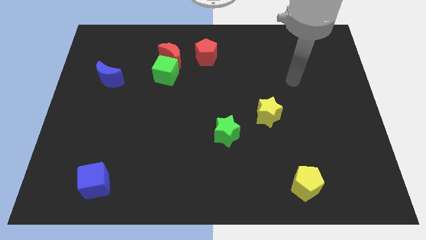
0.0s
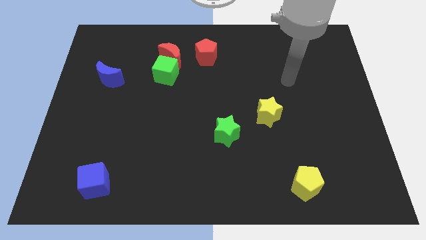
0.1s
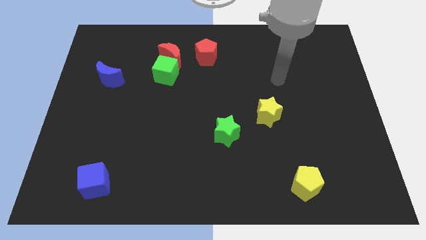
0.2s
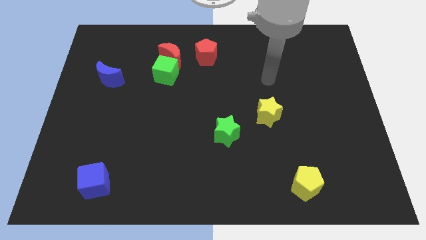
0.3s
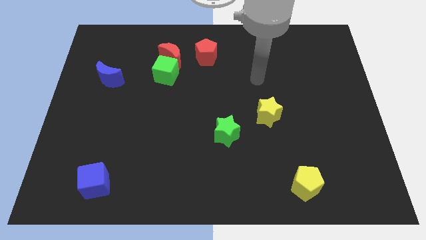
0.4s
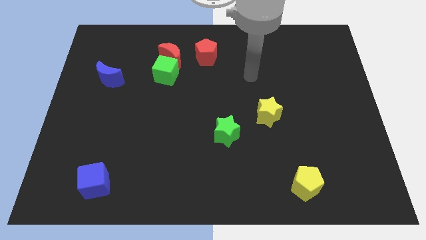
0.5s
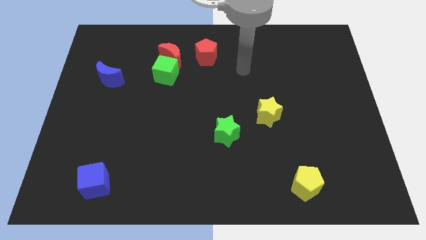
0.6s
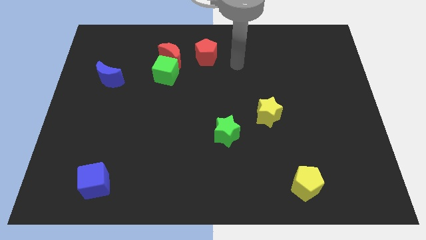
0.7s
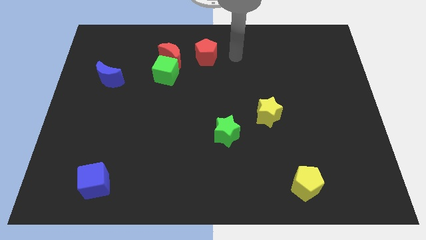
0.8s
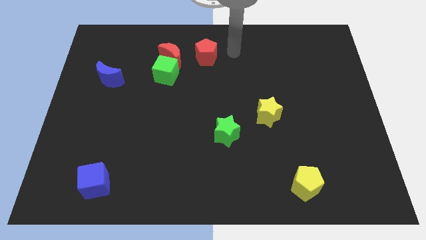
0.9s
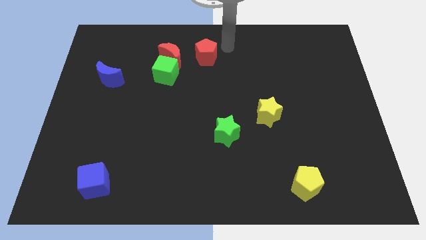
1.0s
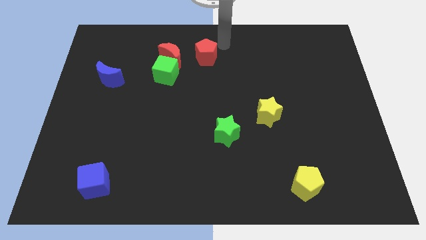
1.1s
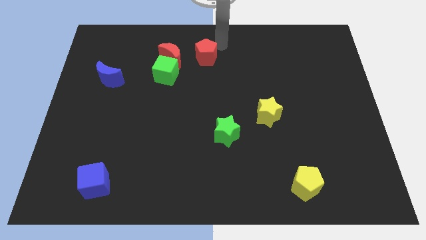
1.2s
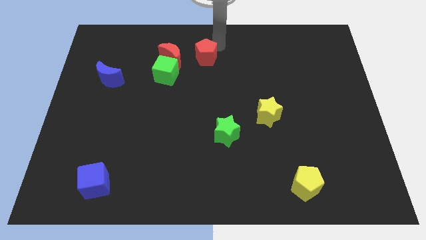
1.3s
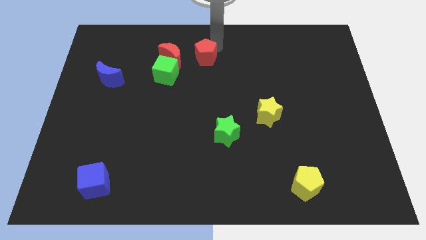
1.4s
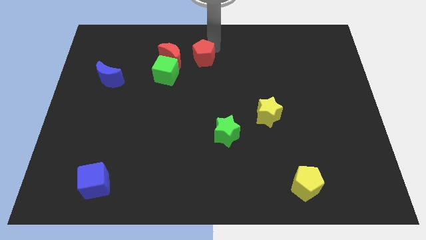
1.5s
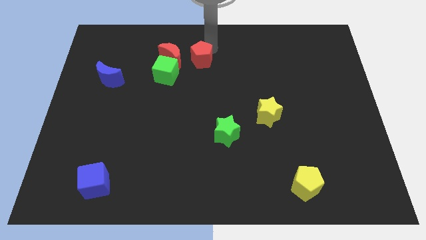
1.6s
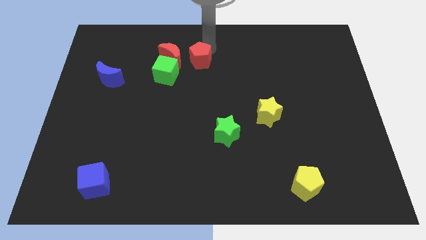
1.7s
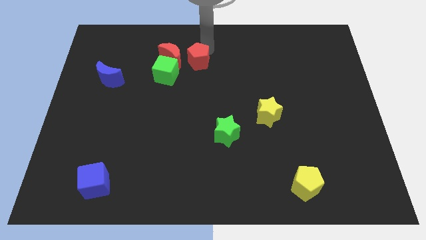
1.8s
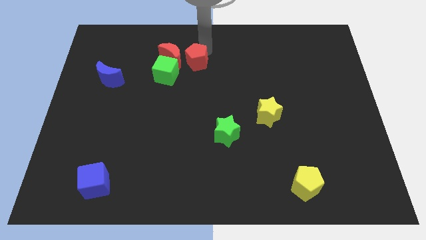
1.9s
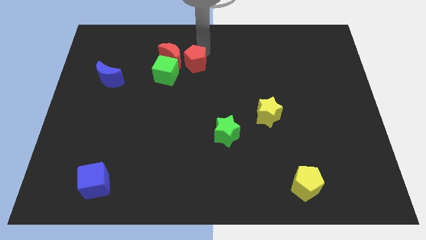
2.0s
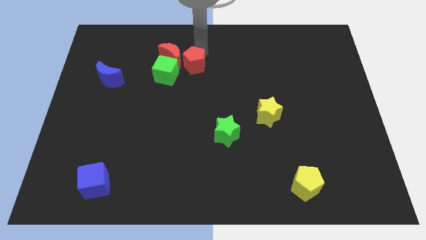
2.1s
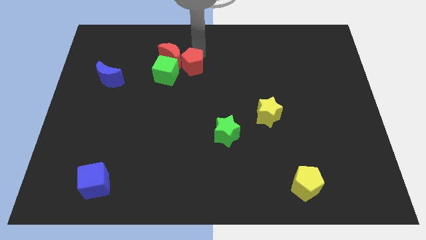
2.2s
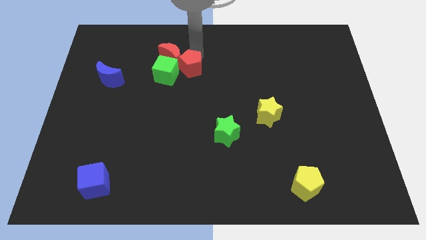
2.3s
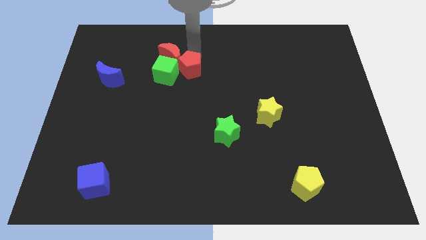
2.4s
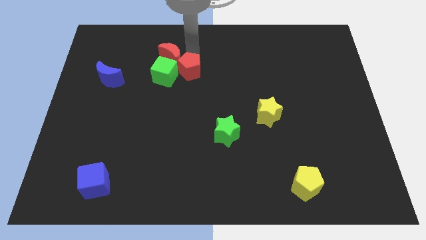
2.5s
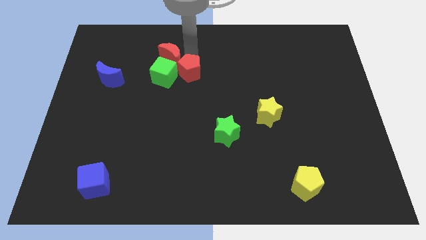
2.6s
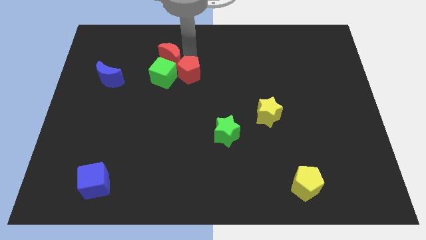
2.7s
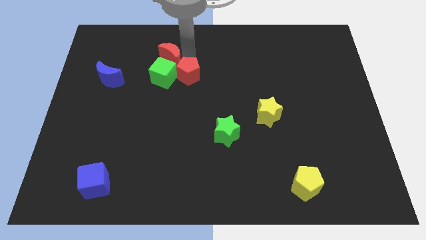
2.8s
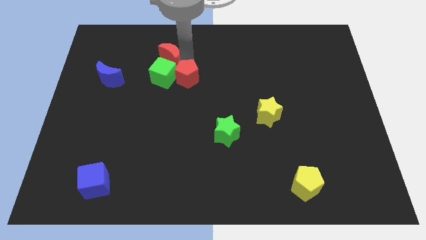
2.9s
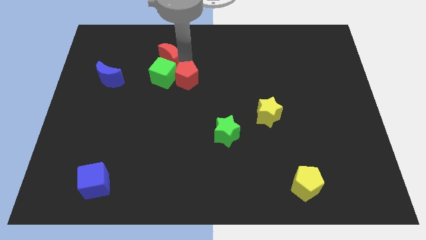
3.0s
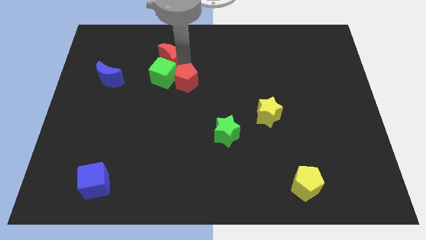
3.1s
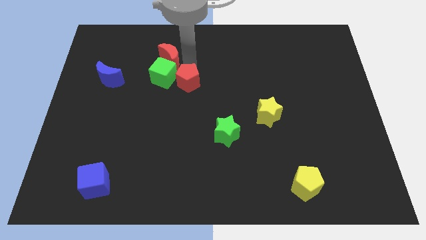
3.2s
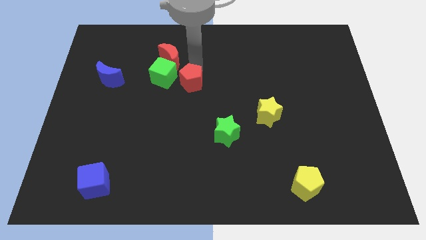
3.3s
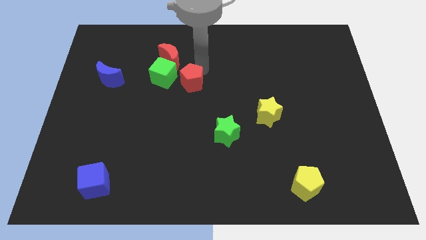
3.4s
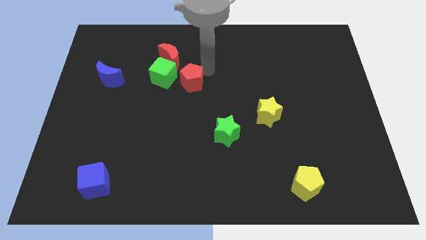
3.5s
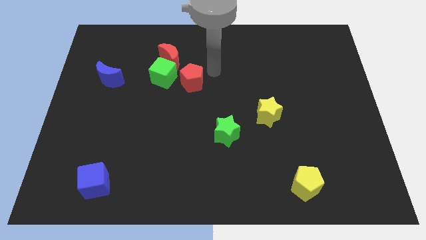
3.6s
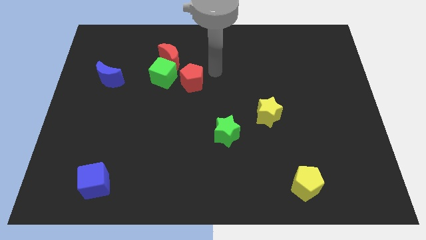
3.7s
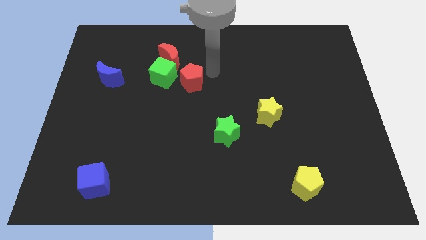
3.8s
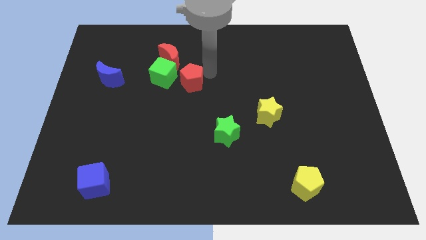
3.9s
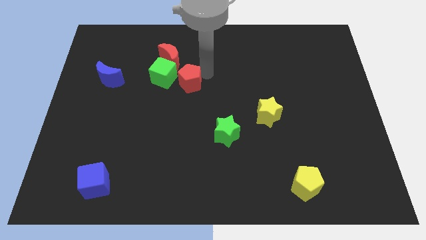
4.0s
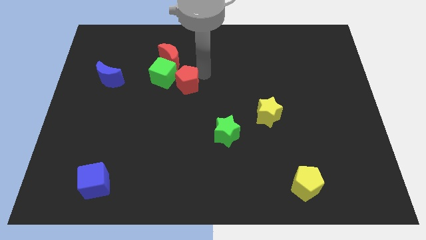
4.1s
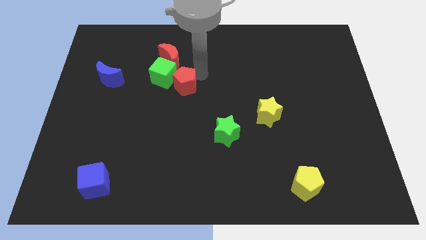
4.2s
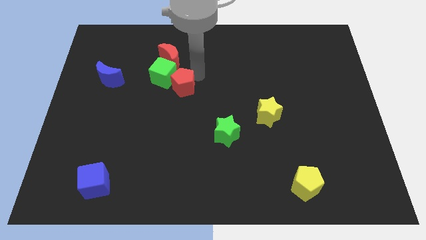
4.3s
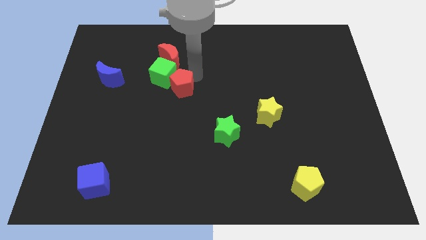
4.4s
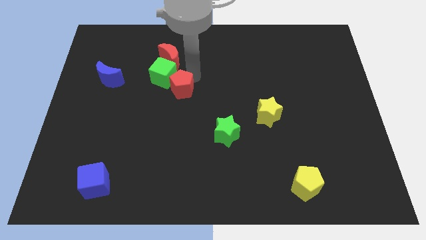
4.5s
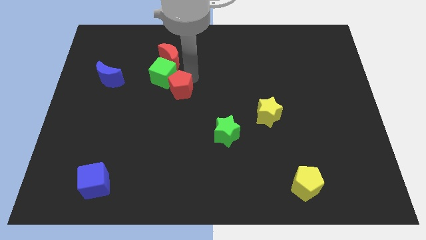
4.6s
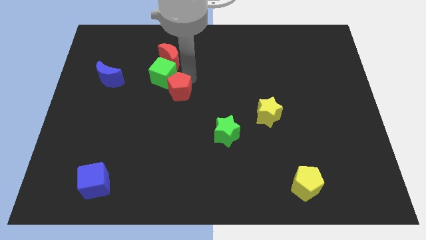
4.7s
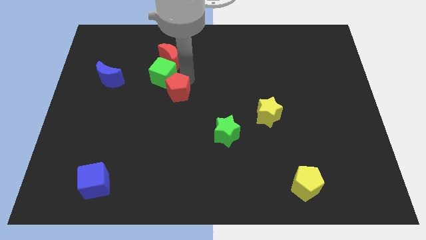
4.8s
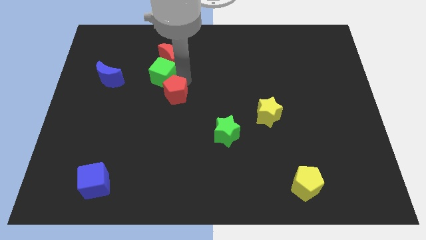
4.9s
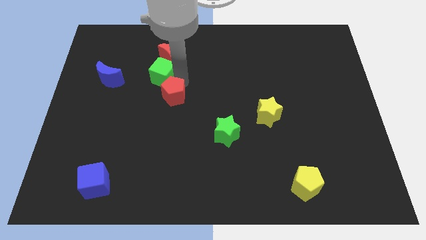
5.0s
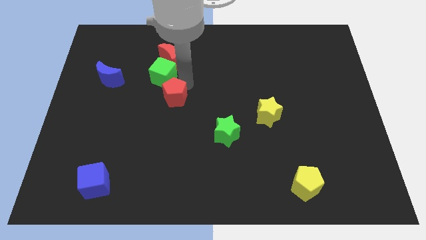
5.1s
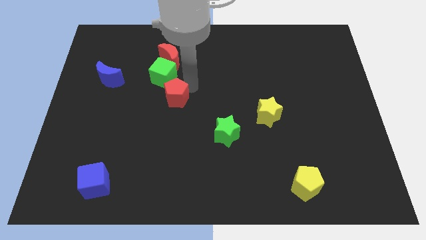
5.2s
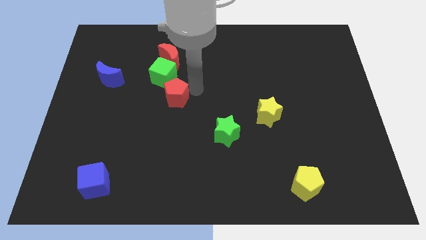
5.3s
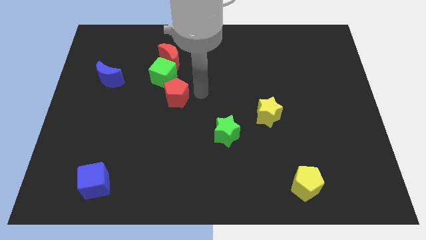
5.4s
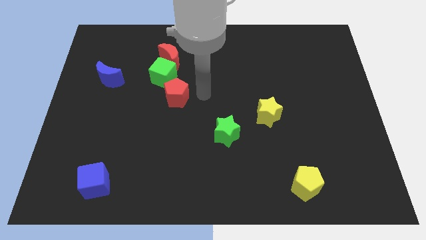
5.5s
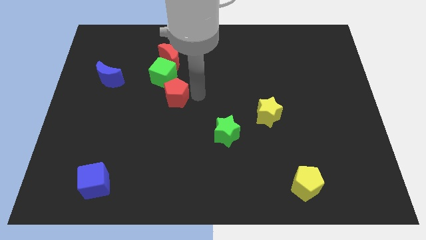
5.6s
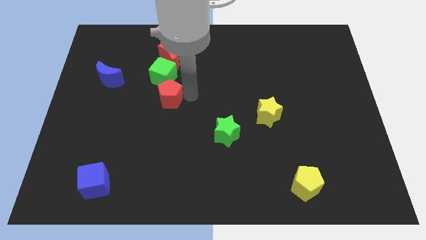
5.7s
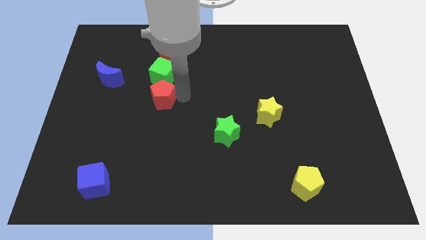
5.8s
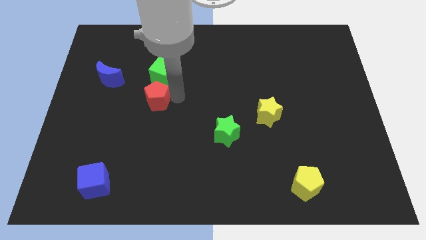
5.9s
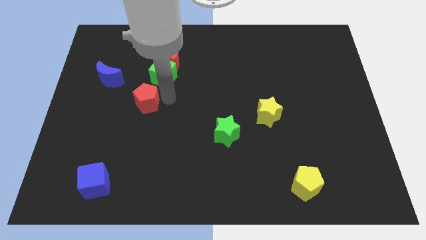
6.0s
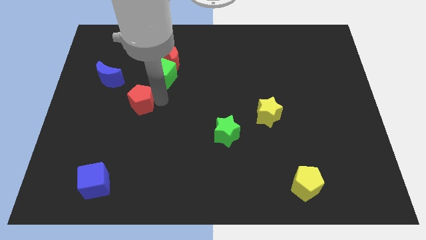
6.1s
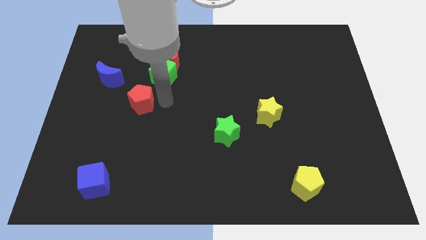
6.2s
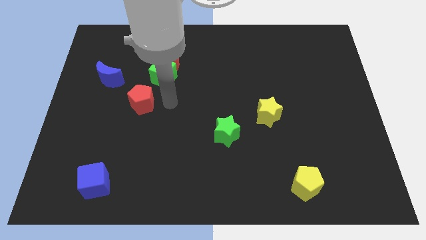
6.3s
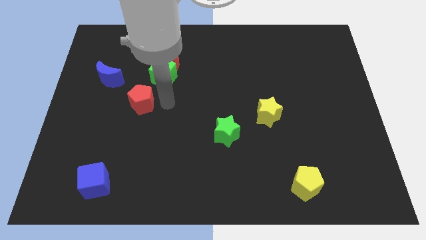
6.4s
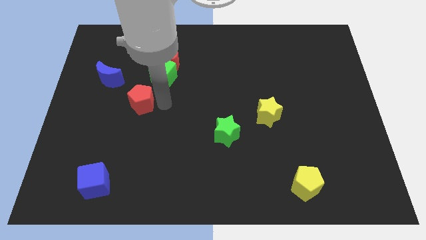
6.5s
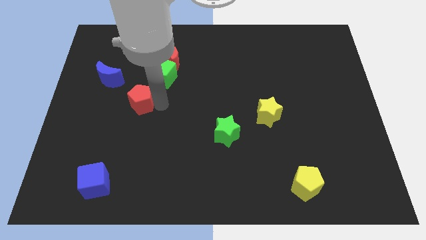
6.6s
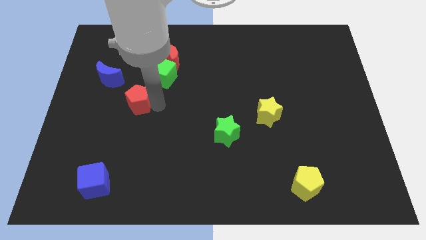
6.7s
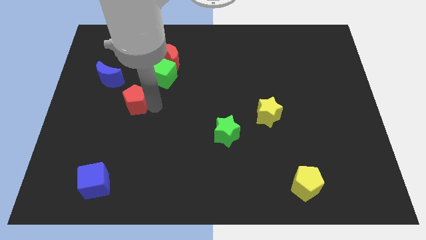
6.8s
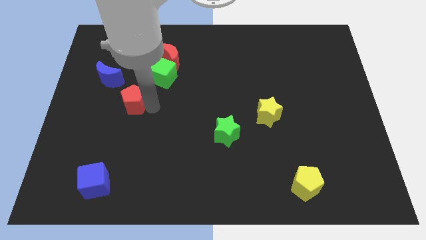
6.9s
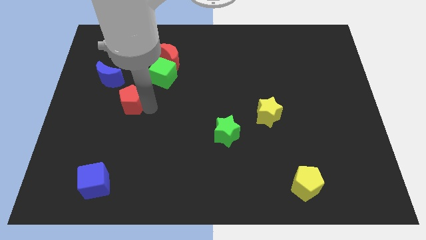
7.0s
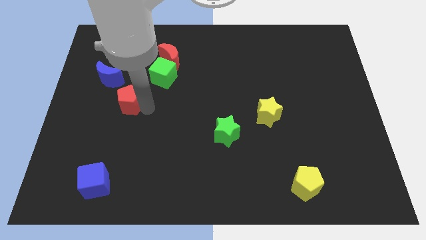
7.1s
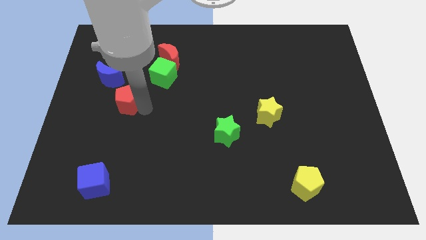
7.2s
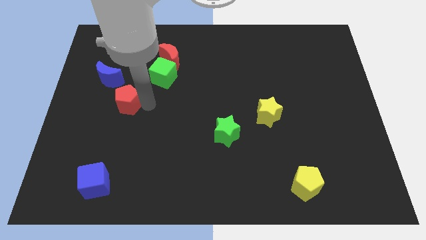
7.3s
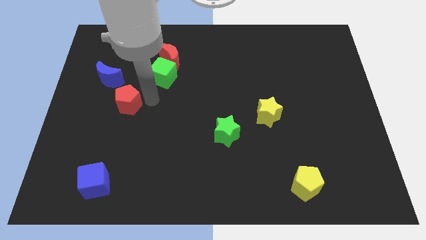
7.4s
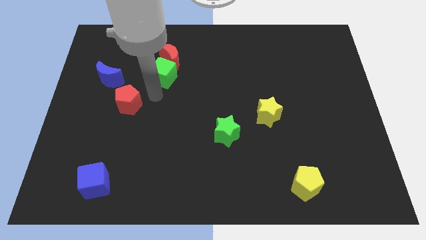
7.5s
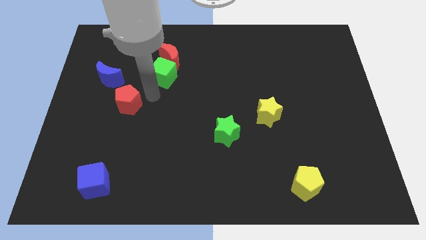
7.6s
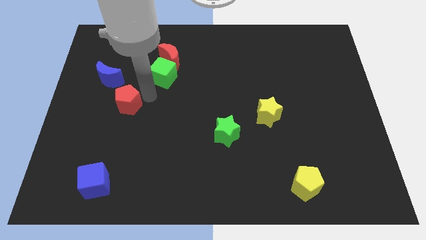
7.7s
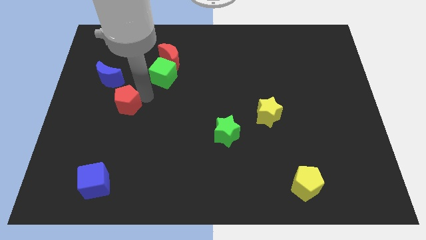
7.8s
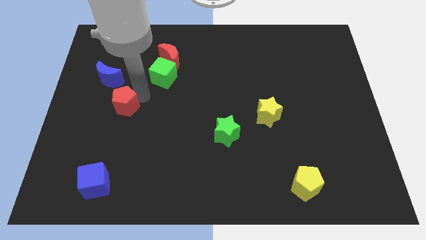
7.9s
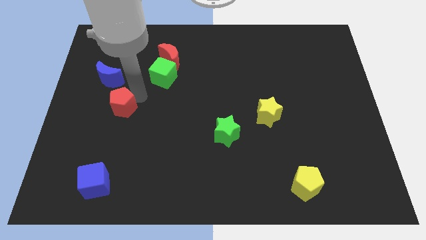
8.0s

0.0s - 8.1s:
push the red pentagon below the blue moon
